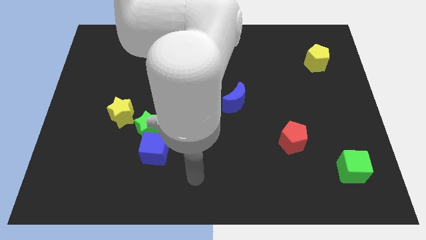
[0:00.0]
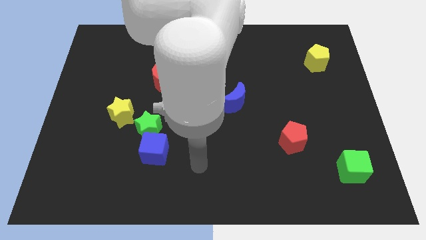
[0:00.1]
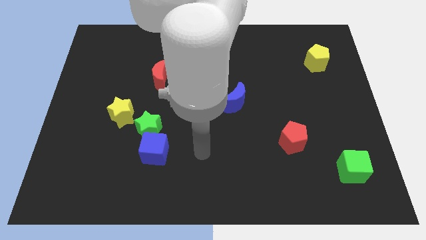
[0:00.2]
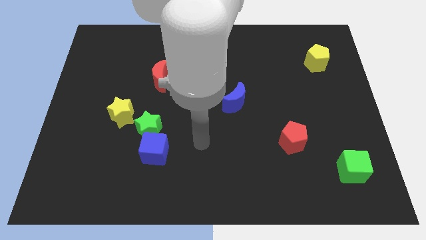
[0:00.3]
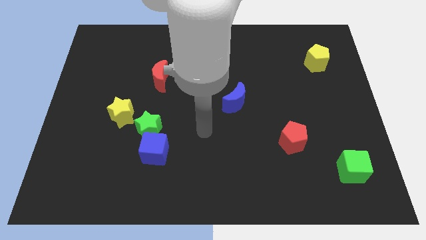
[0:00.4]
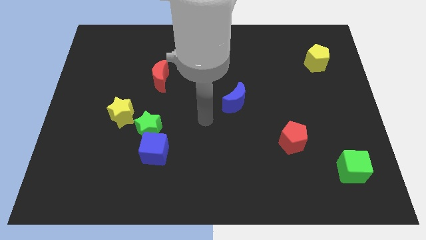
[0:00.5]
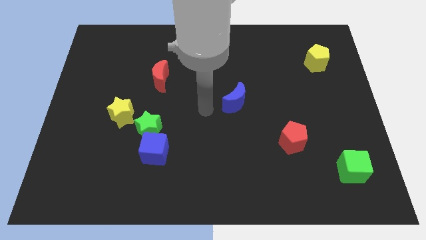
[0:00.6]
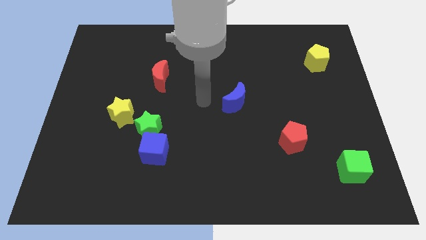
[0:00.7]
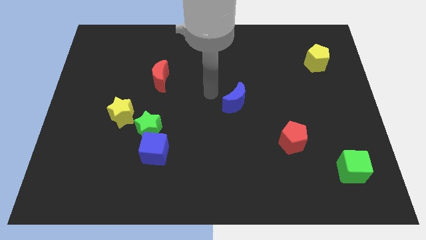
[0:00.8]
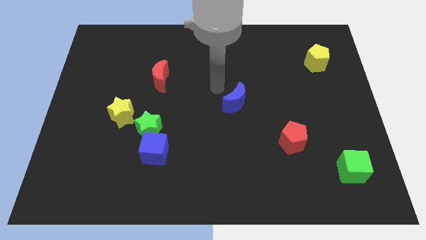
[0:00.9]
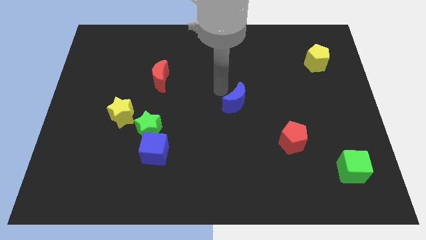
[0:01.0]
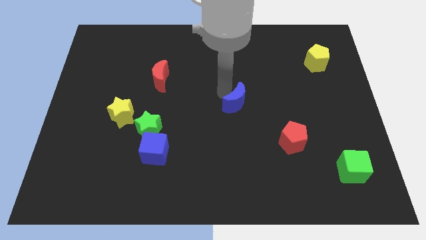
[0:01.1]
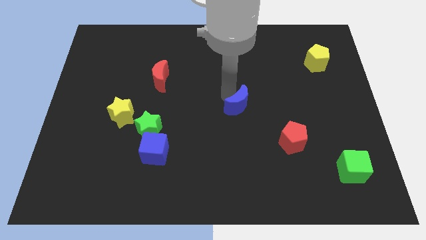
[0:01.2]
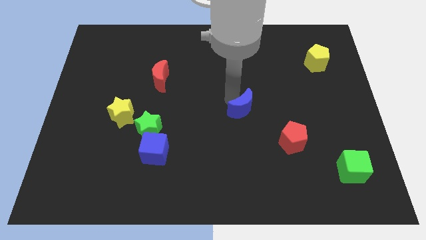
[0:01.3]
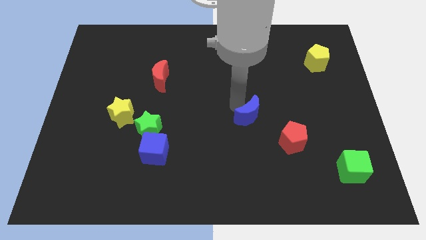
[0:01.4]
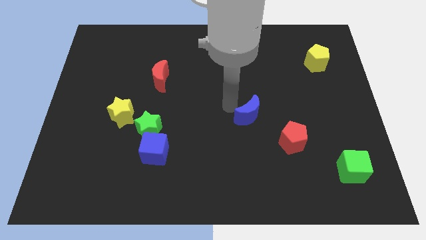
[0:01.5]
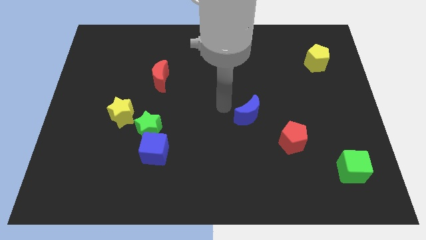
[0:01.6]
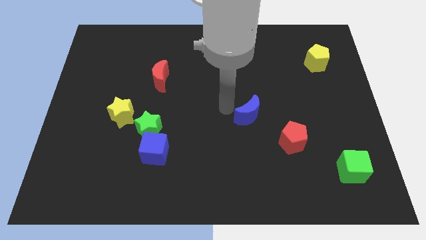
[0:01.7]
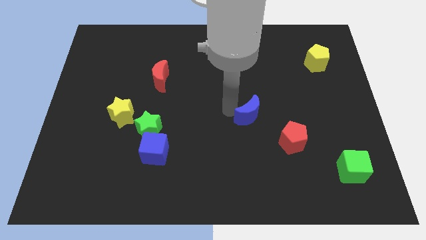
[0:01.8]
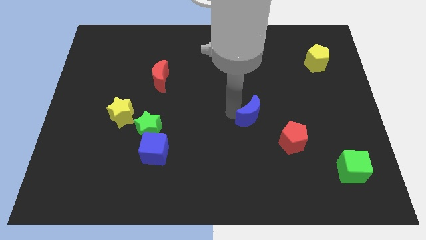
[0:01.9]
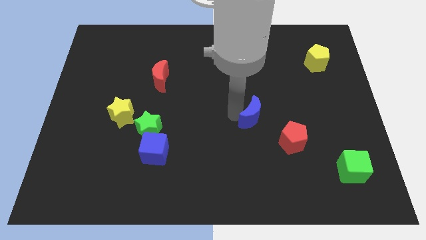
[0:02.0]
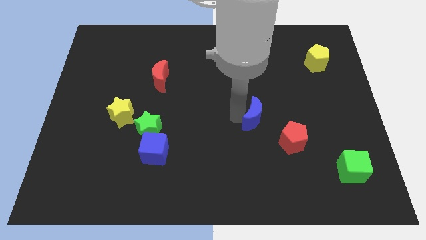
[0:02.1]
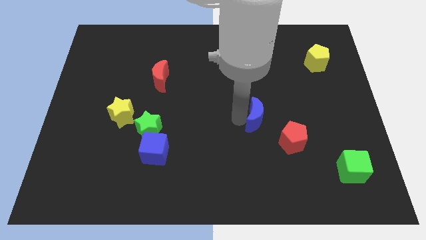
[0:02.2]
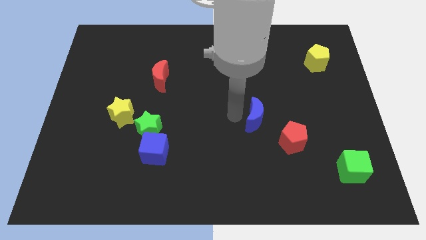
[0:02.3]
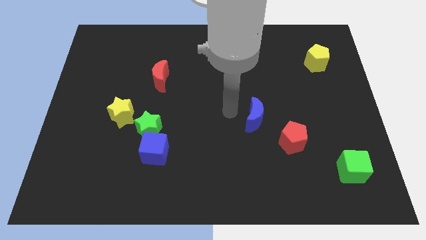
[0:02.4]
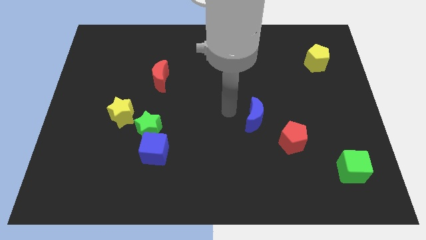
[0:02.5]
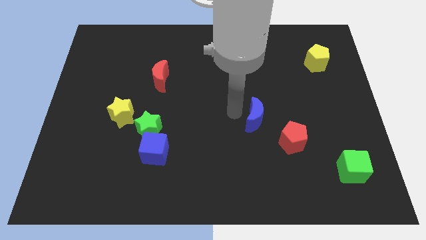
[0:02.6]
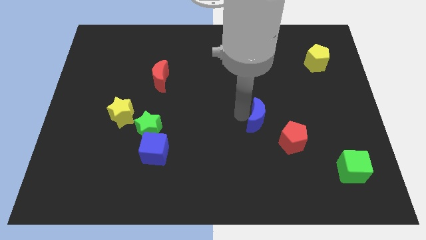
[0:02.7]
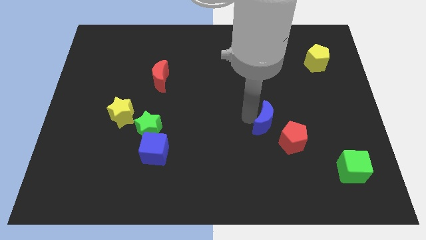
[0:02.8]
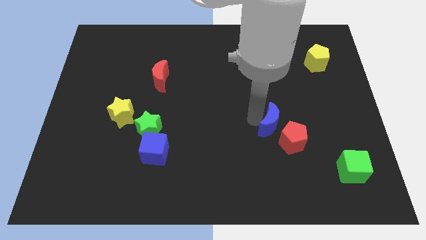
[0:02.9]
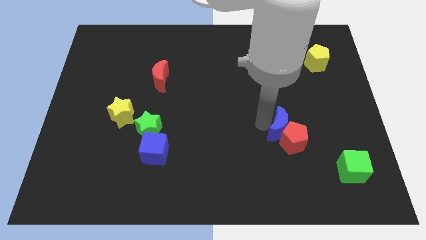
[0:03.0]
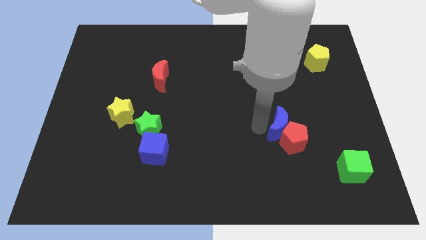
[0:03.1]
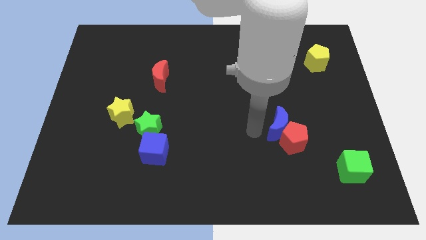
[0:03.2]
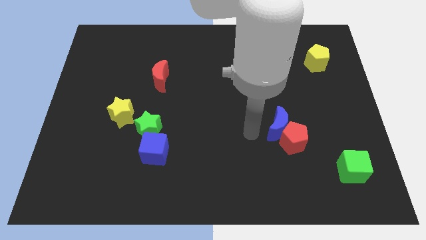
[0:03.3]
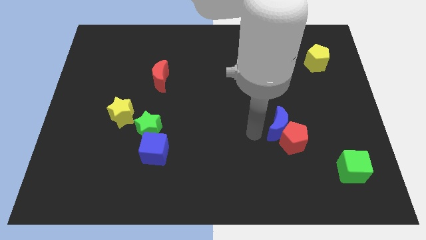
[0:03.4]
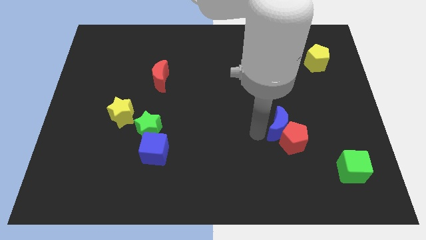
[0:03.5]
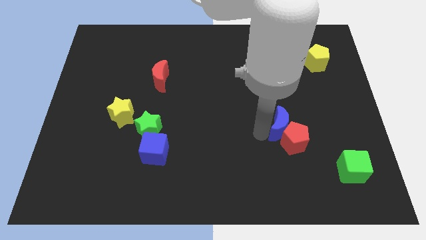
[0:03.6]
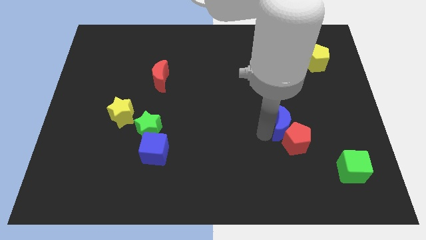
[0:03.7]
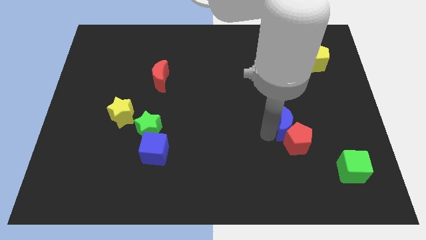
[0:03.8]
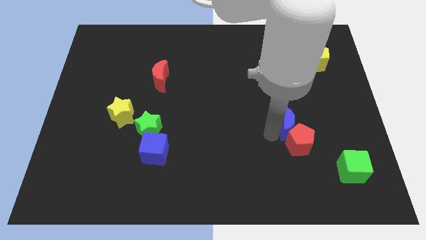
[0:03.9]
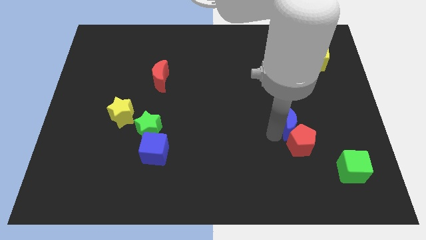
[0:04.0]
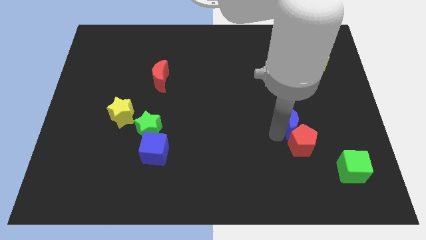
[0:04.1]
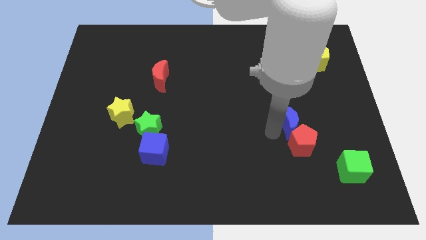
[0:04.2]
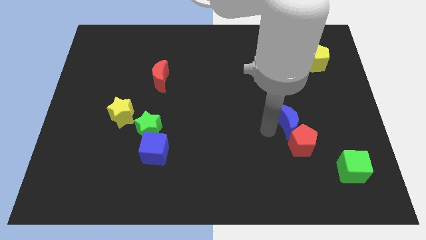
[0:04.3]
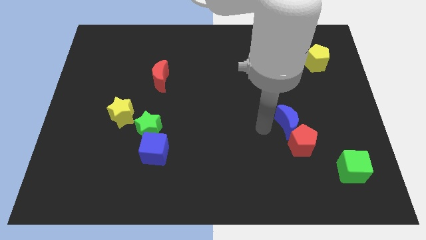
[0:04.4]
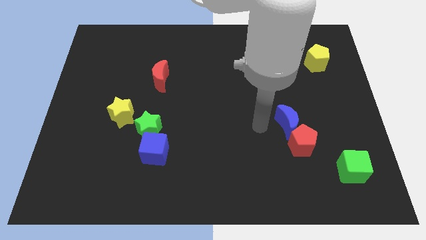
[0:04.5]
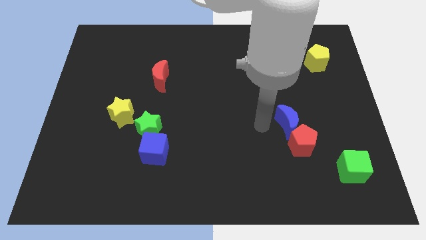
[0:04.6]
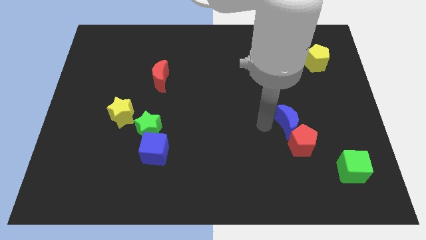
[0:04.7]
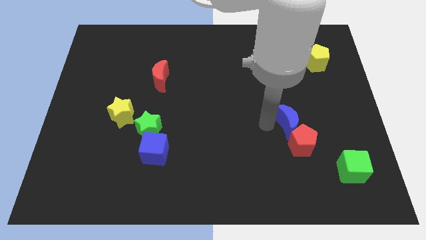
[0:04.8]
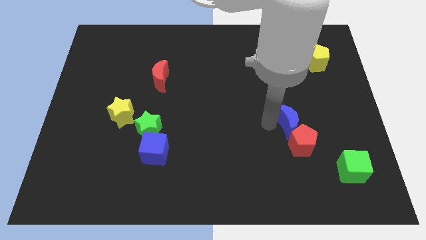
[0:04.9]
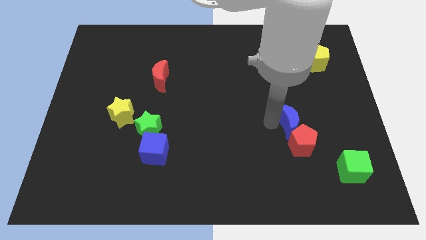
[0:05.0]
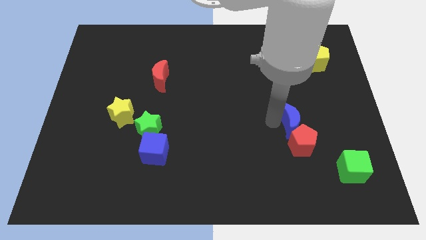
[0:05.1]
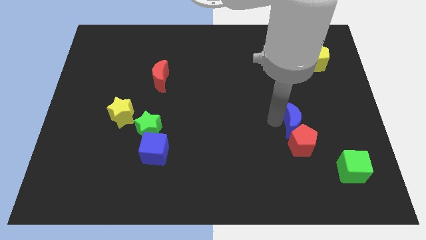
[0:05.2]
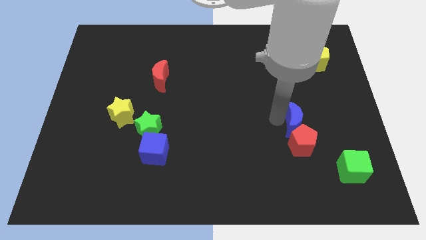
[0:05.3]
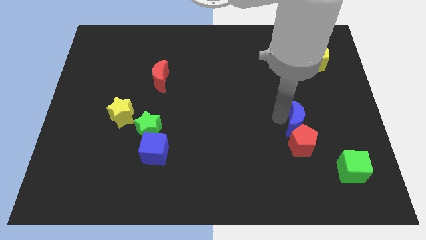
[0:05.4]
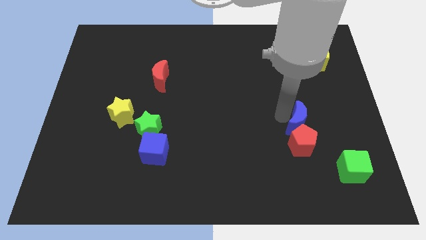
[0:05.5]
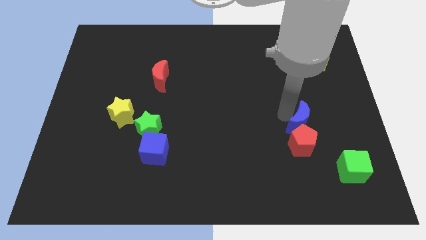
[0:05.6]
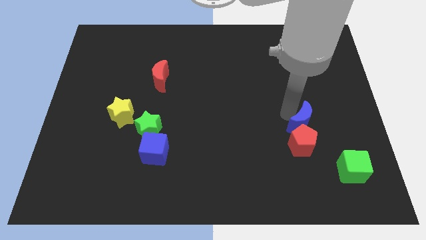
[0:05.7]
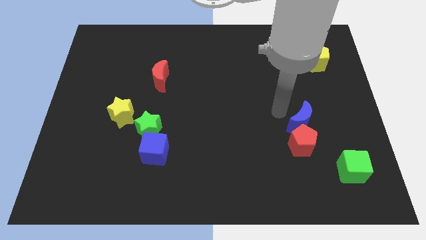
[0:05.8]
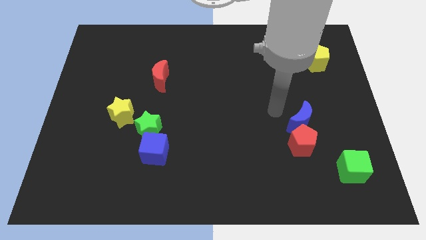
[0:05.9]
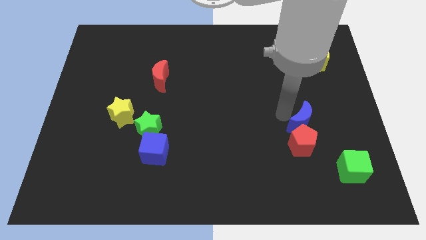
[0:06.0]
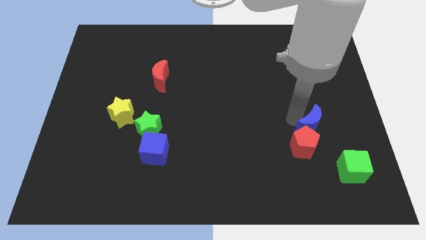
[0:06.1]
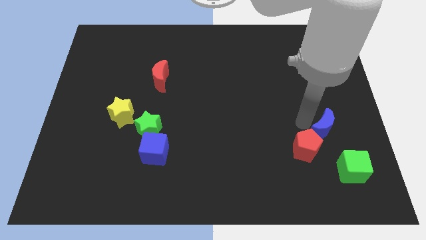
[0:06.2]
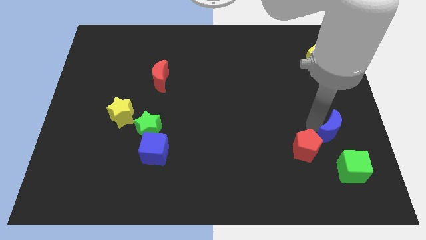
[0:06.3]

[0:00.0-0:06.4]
slide the blue moon to the right of the red pentagon
